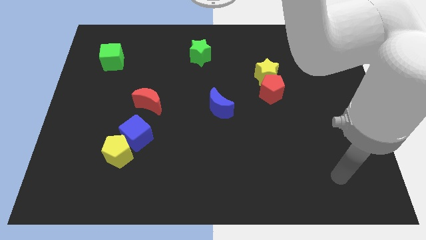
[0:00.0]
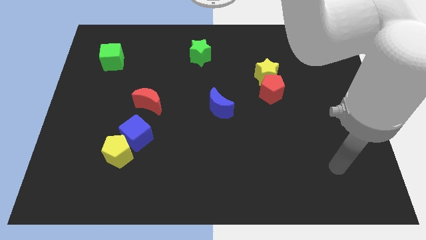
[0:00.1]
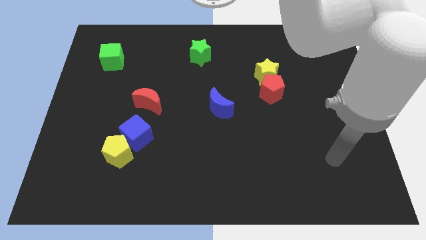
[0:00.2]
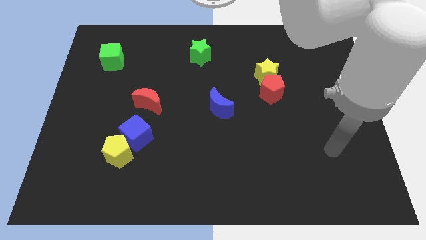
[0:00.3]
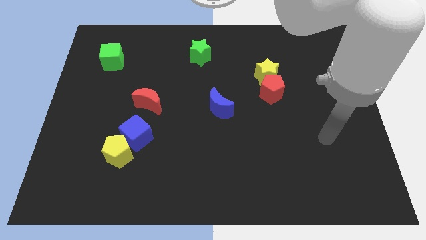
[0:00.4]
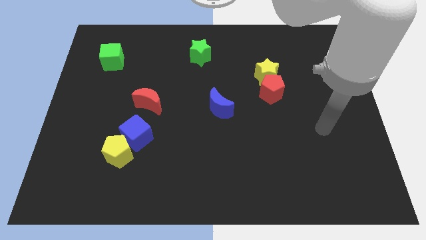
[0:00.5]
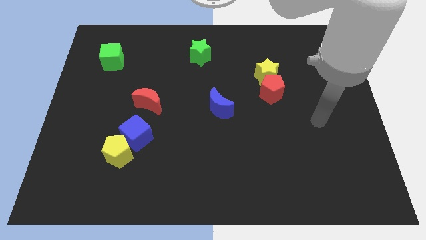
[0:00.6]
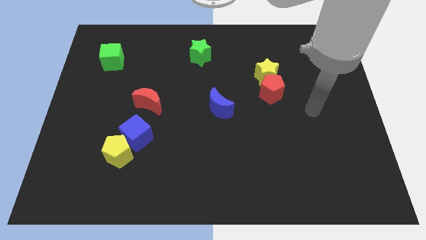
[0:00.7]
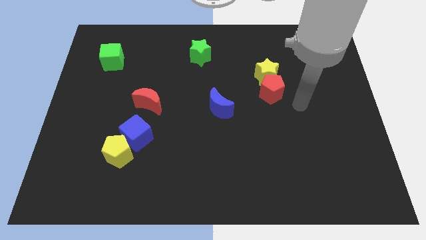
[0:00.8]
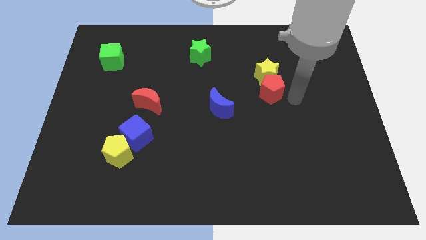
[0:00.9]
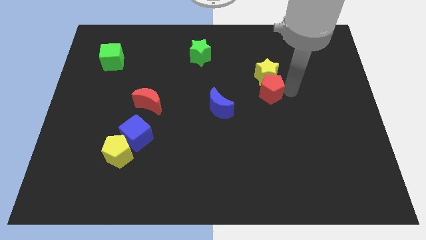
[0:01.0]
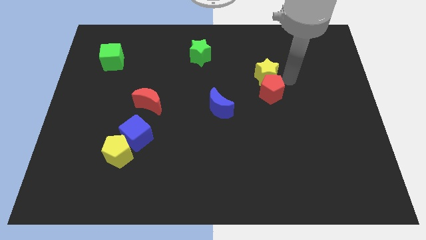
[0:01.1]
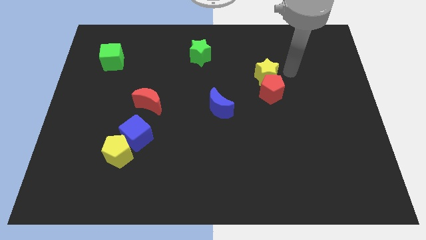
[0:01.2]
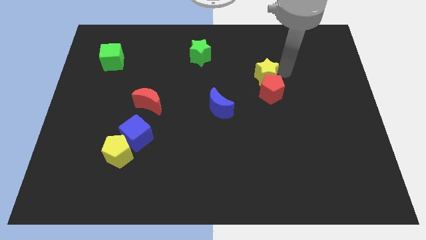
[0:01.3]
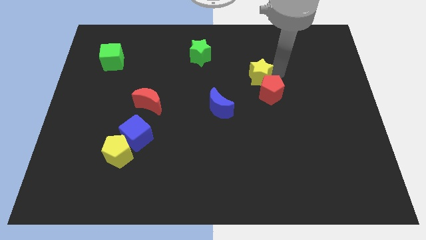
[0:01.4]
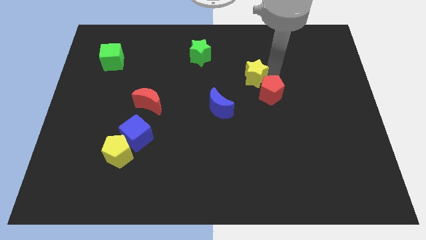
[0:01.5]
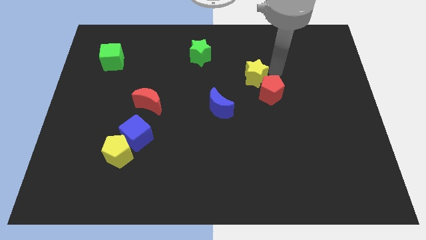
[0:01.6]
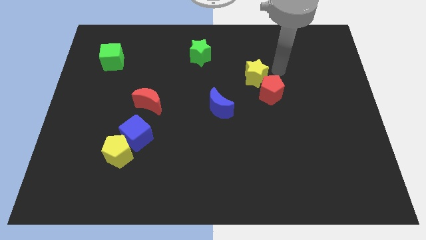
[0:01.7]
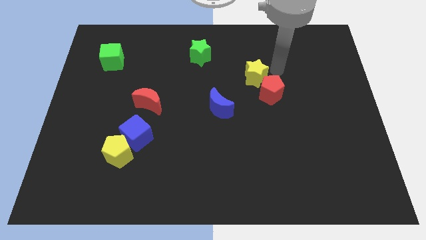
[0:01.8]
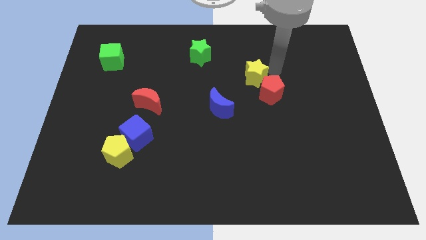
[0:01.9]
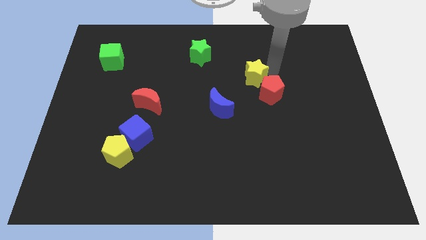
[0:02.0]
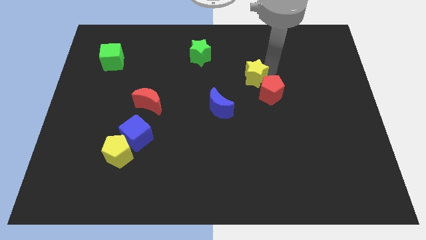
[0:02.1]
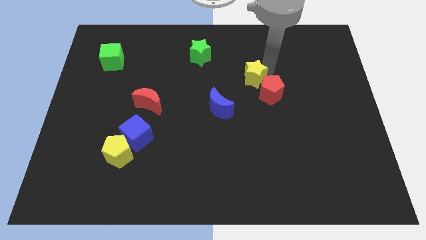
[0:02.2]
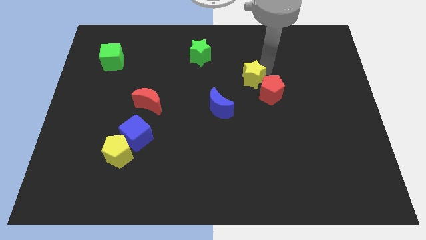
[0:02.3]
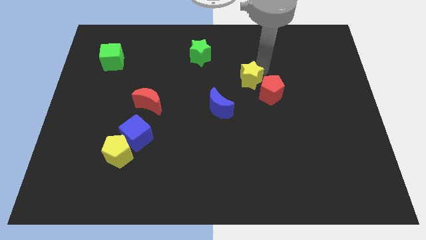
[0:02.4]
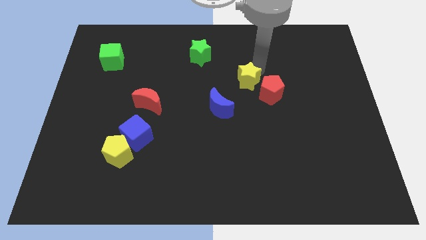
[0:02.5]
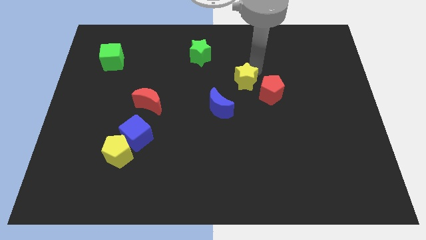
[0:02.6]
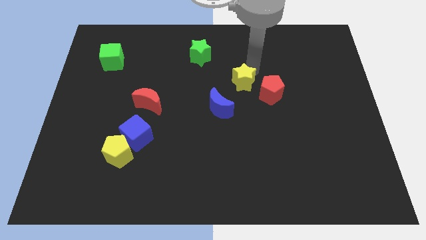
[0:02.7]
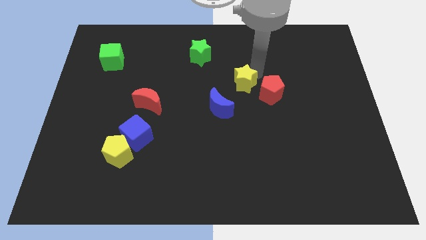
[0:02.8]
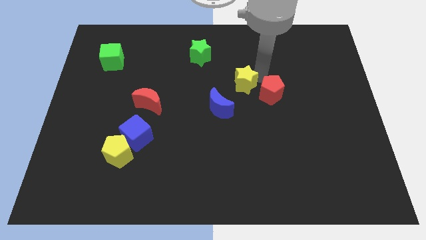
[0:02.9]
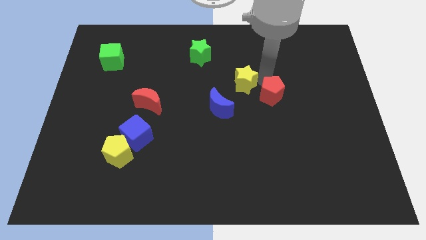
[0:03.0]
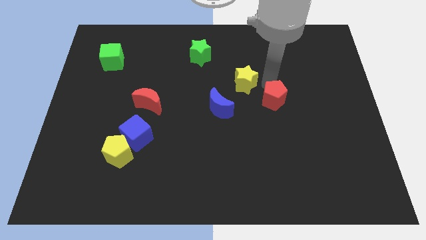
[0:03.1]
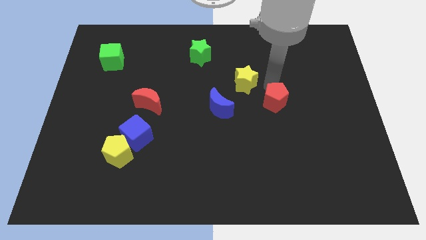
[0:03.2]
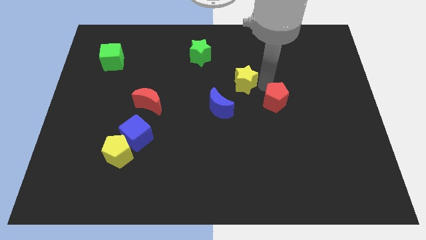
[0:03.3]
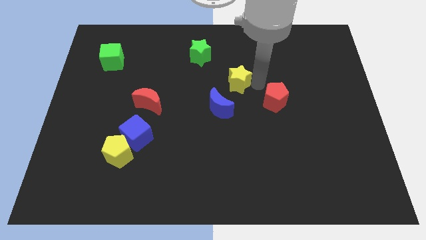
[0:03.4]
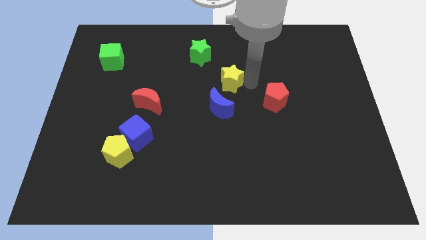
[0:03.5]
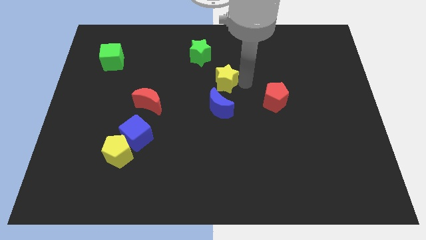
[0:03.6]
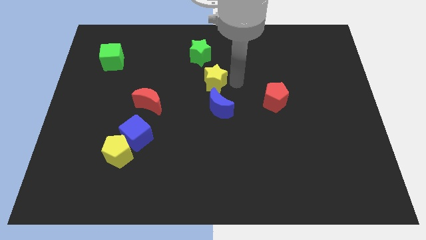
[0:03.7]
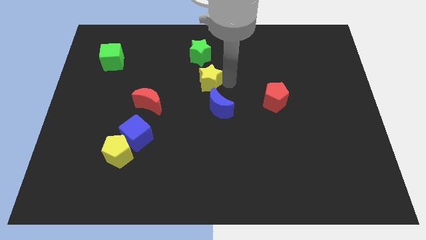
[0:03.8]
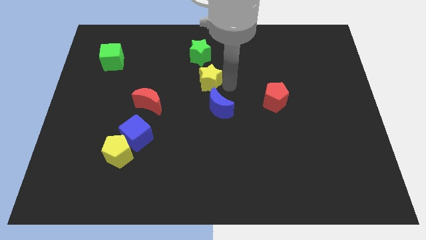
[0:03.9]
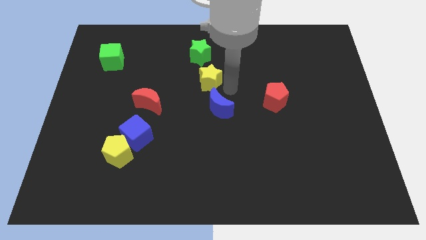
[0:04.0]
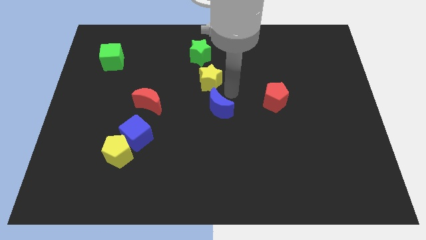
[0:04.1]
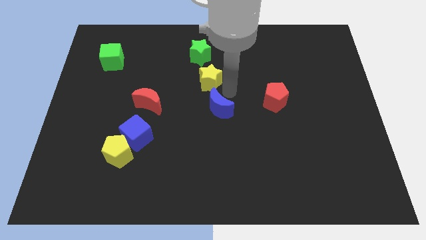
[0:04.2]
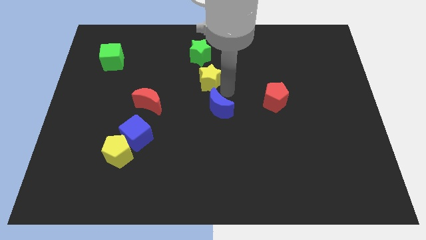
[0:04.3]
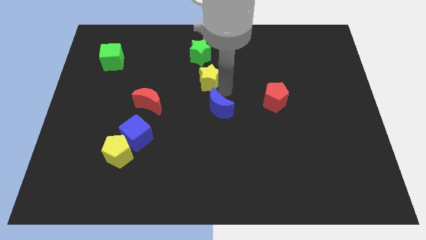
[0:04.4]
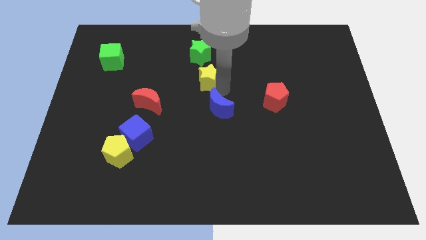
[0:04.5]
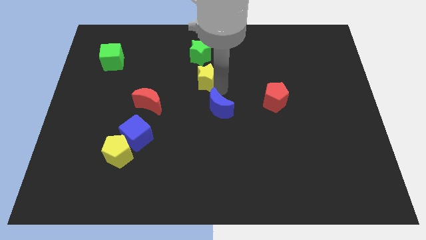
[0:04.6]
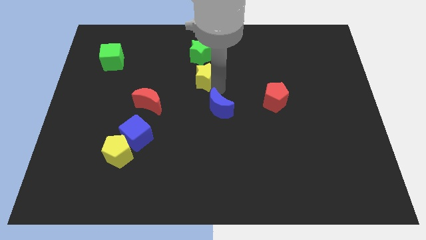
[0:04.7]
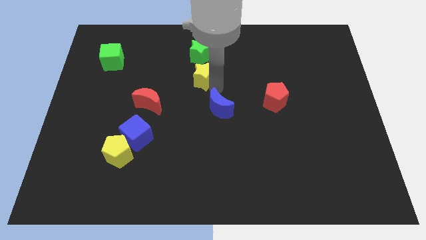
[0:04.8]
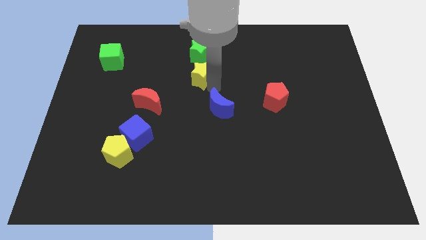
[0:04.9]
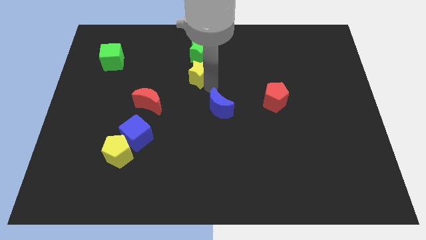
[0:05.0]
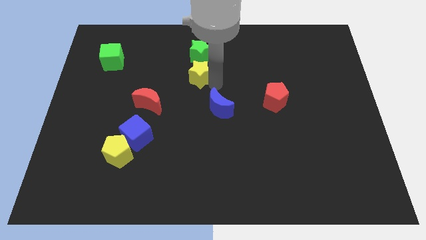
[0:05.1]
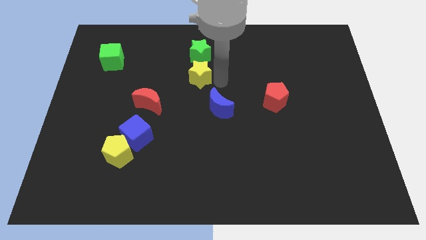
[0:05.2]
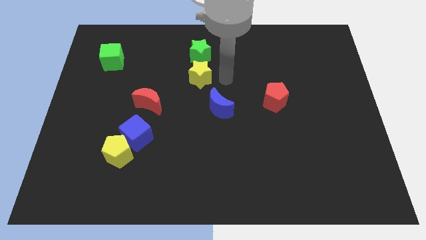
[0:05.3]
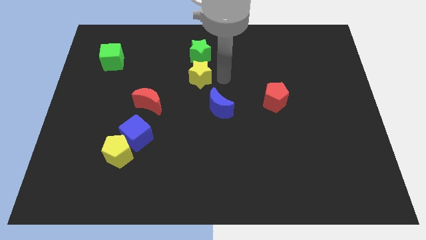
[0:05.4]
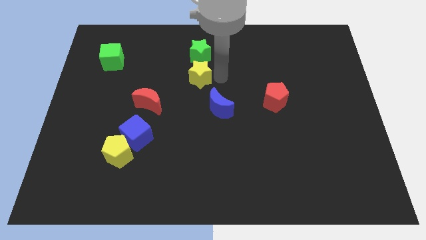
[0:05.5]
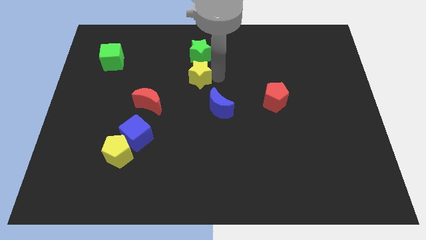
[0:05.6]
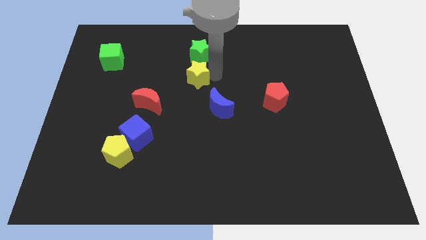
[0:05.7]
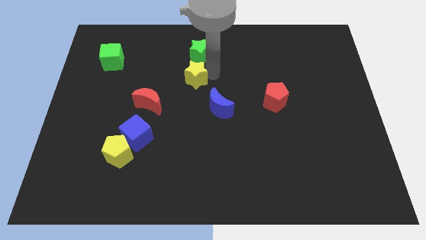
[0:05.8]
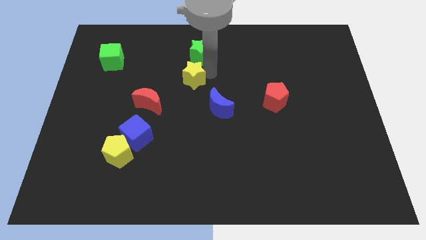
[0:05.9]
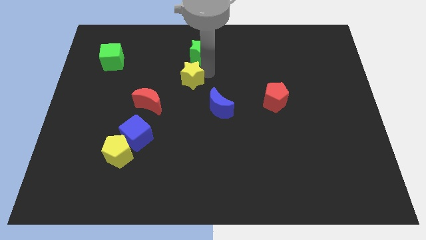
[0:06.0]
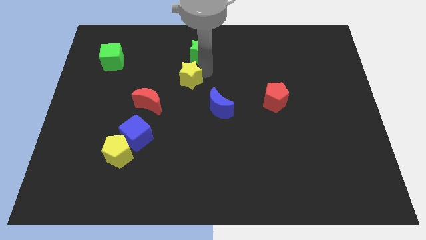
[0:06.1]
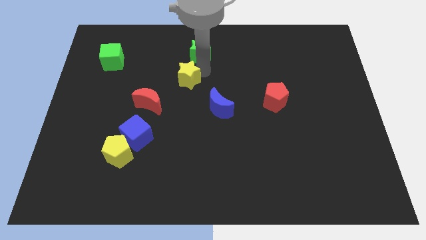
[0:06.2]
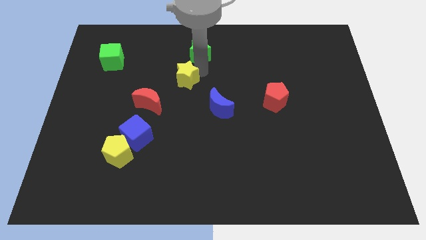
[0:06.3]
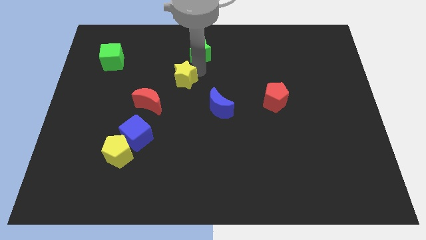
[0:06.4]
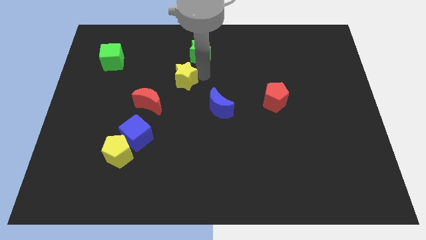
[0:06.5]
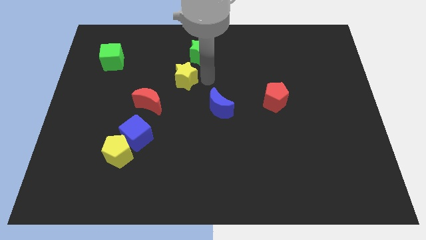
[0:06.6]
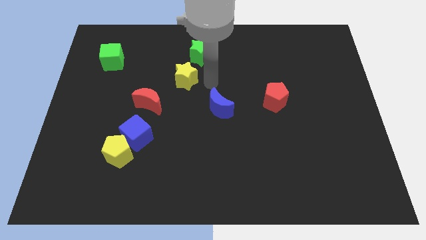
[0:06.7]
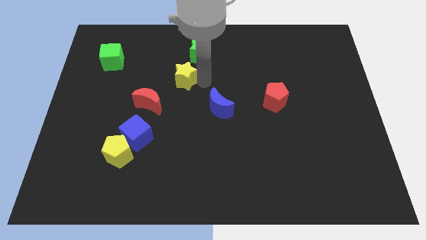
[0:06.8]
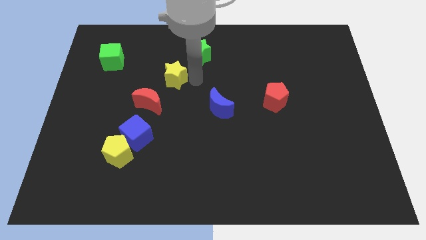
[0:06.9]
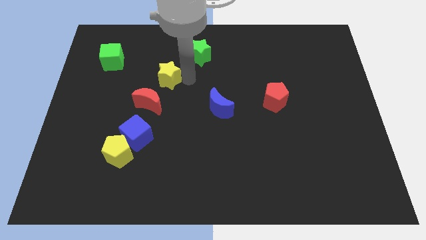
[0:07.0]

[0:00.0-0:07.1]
push the yellow star above the red moon
